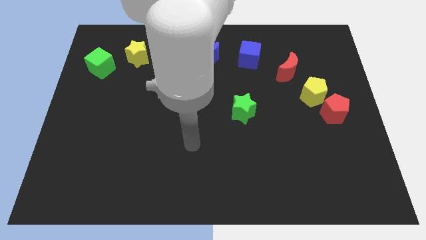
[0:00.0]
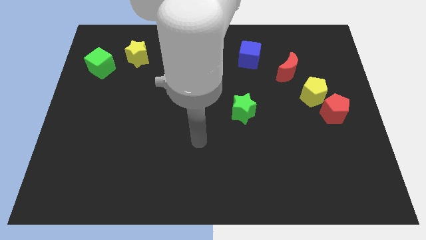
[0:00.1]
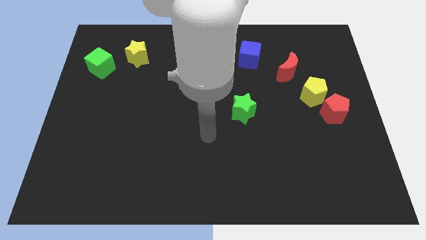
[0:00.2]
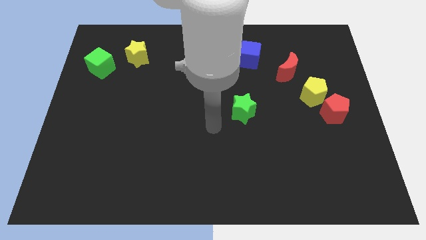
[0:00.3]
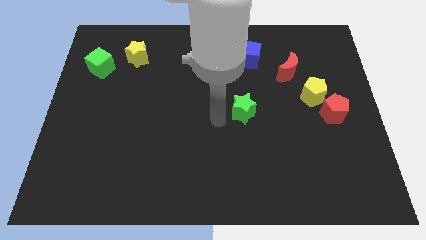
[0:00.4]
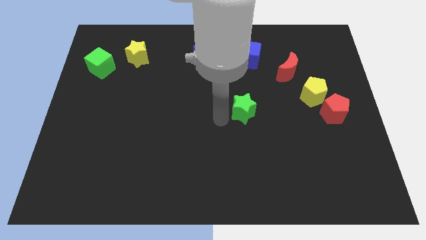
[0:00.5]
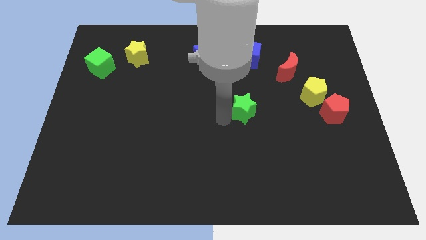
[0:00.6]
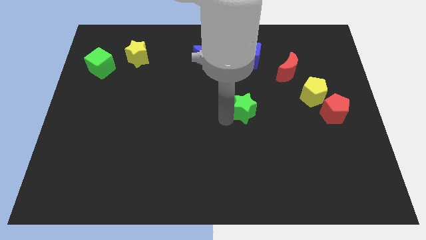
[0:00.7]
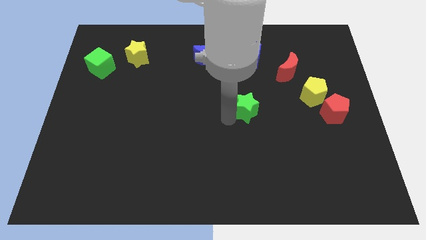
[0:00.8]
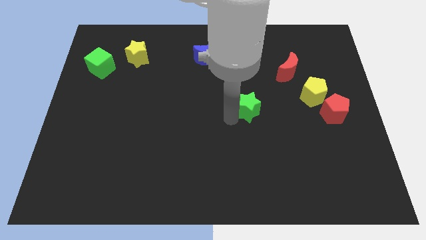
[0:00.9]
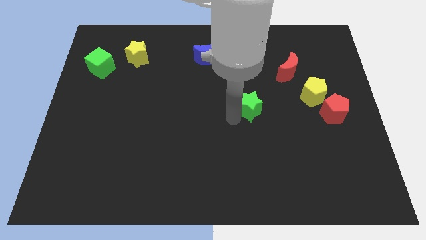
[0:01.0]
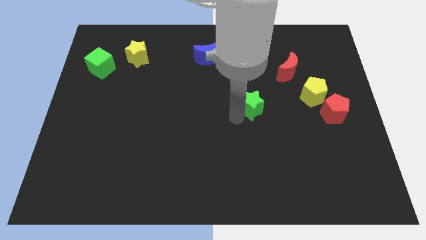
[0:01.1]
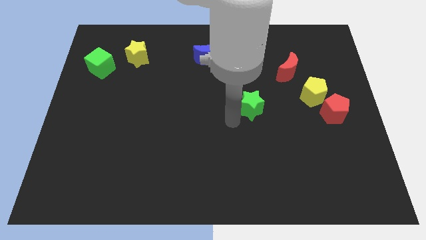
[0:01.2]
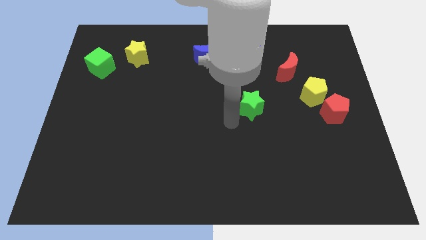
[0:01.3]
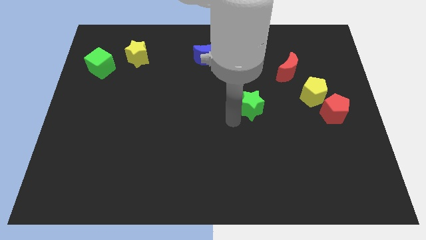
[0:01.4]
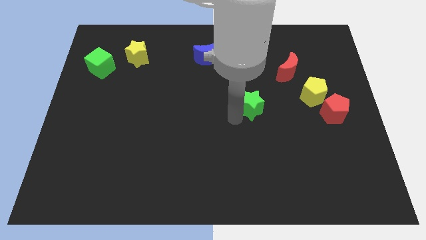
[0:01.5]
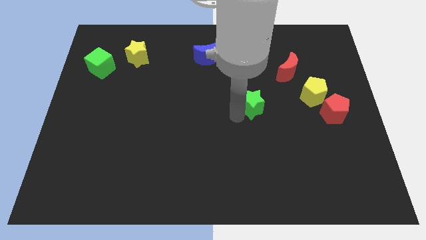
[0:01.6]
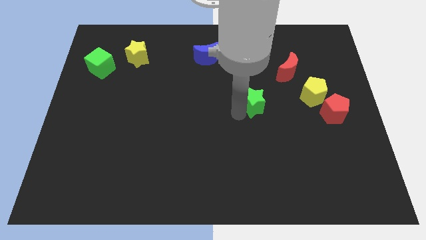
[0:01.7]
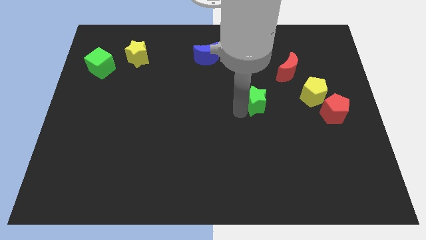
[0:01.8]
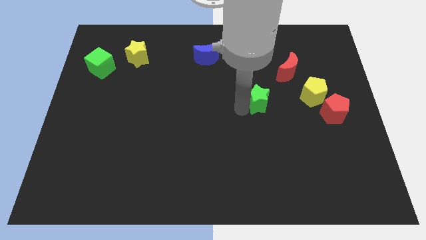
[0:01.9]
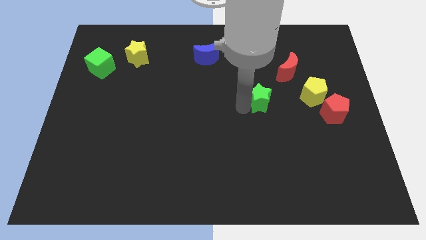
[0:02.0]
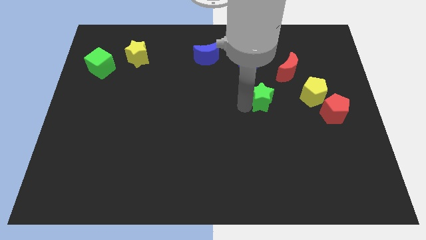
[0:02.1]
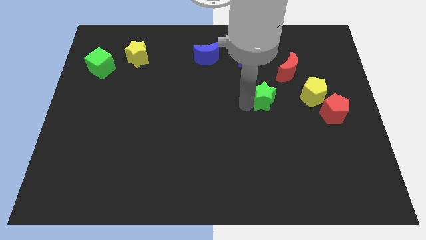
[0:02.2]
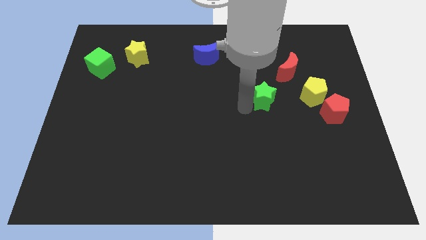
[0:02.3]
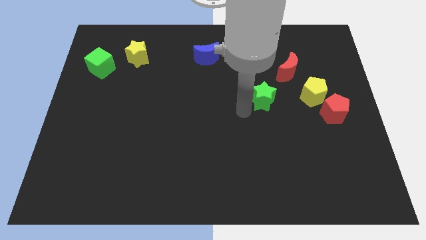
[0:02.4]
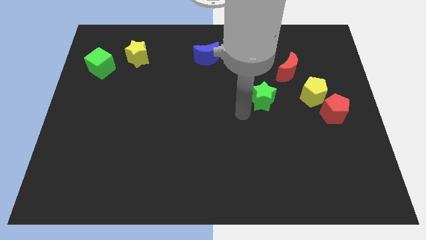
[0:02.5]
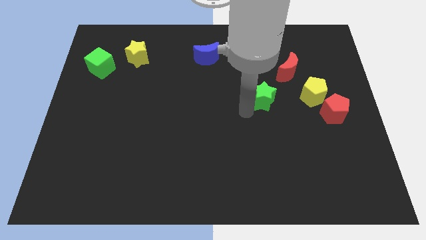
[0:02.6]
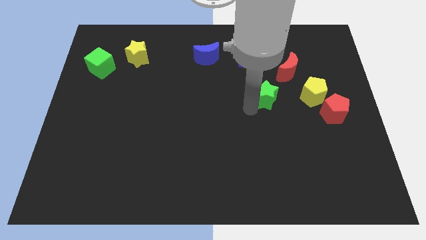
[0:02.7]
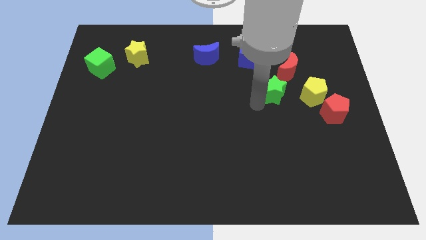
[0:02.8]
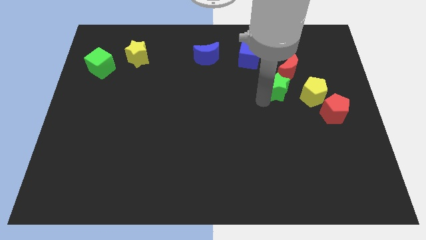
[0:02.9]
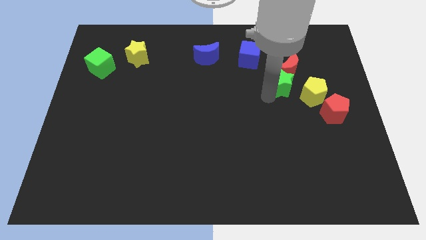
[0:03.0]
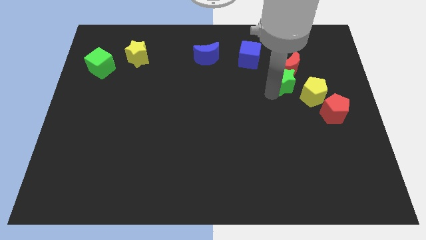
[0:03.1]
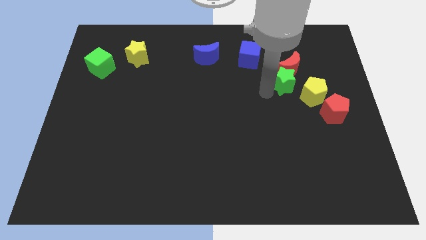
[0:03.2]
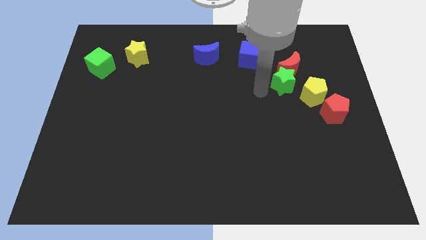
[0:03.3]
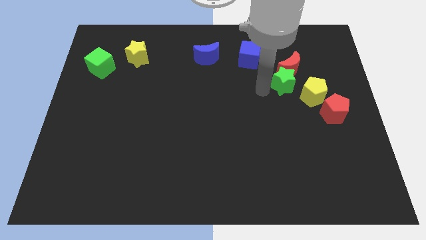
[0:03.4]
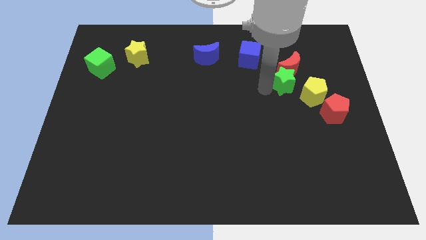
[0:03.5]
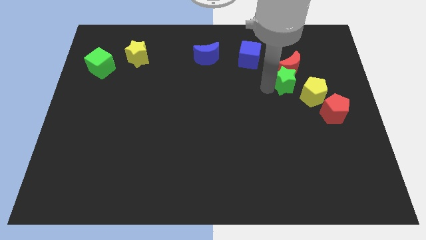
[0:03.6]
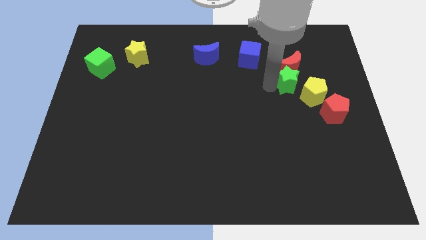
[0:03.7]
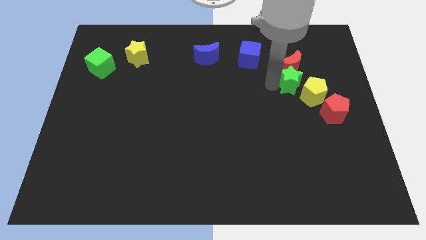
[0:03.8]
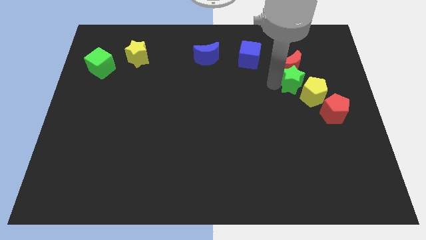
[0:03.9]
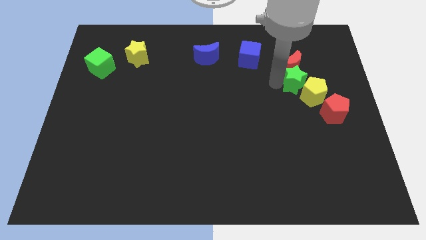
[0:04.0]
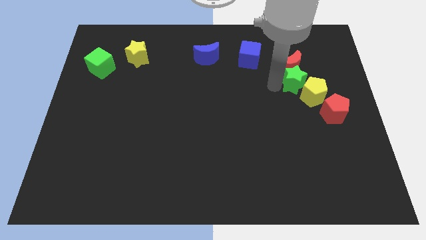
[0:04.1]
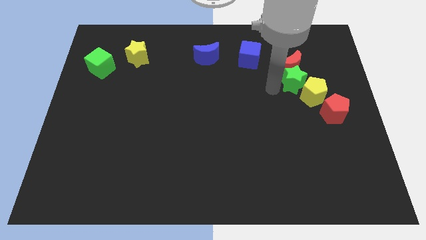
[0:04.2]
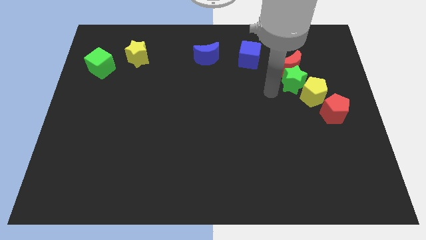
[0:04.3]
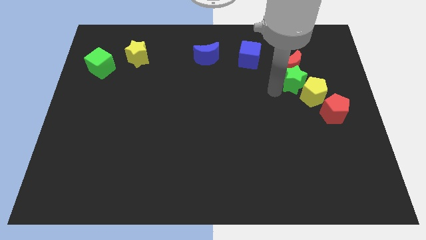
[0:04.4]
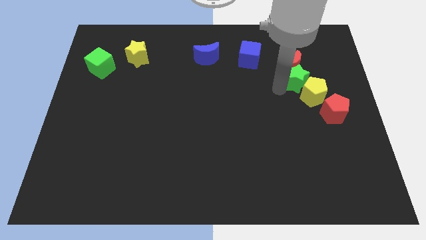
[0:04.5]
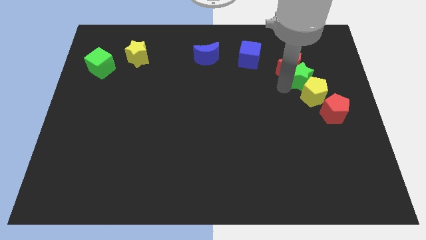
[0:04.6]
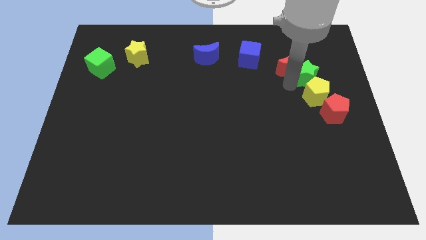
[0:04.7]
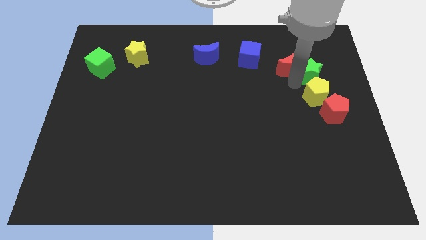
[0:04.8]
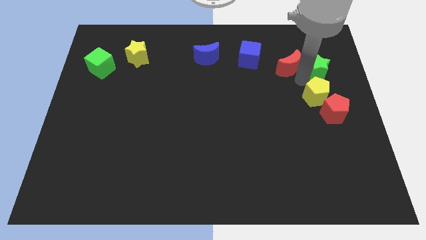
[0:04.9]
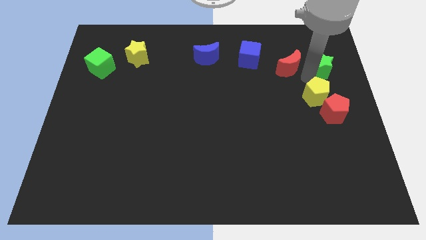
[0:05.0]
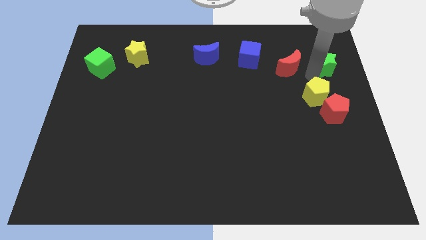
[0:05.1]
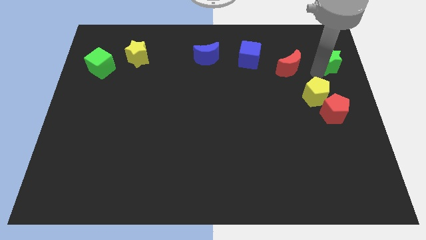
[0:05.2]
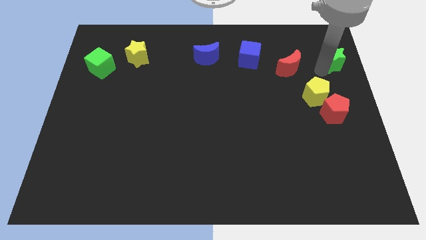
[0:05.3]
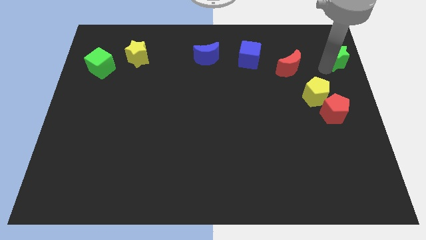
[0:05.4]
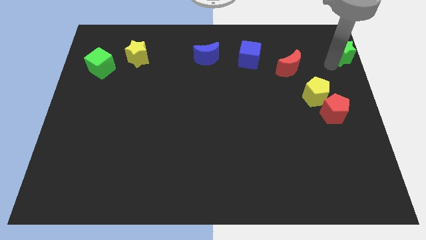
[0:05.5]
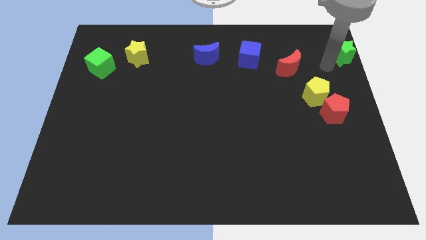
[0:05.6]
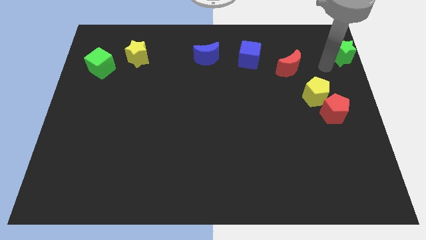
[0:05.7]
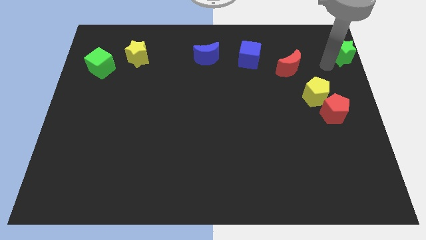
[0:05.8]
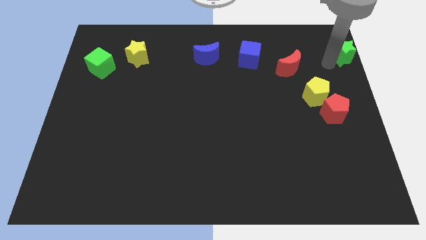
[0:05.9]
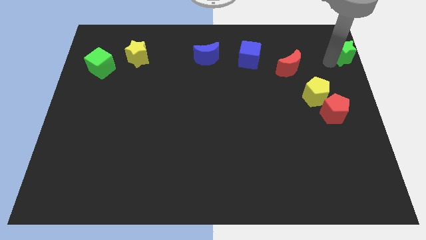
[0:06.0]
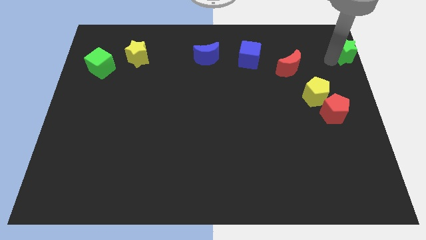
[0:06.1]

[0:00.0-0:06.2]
move the green star to the top right corner
